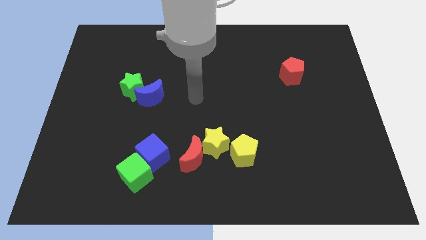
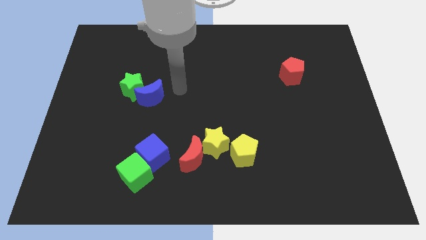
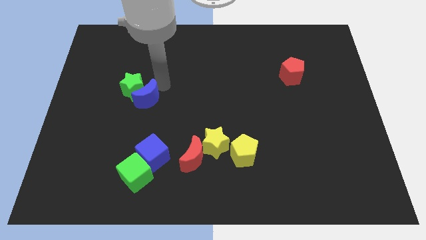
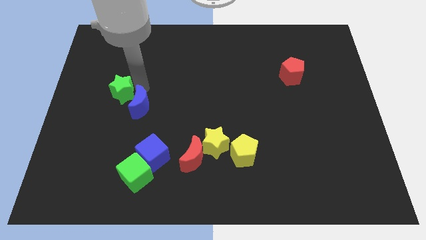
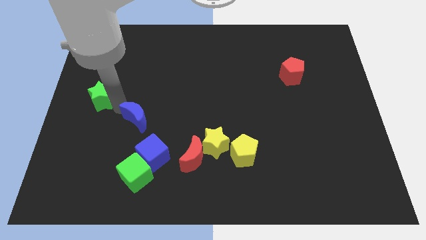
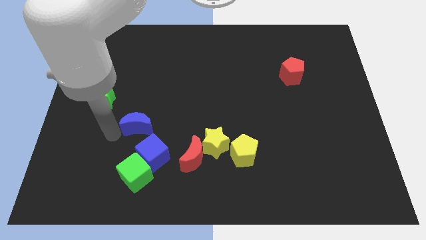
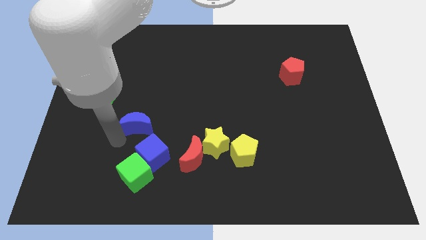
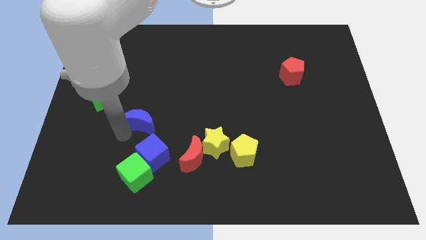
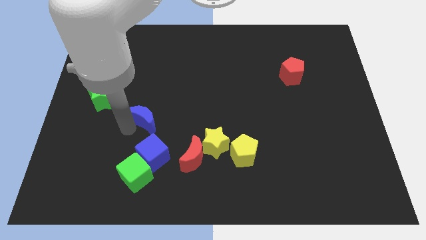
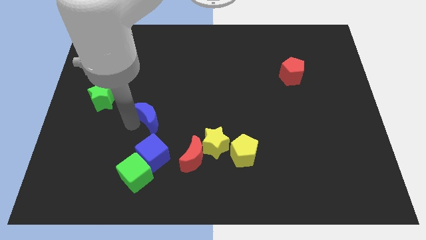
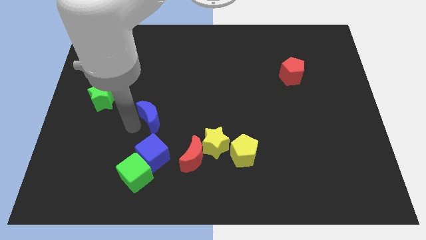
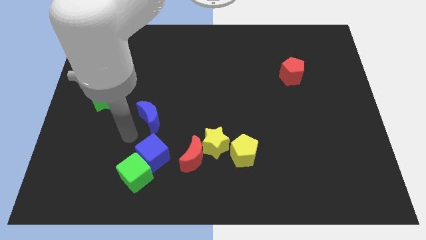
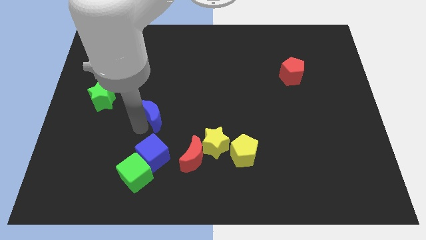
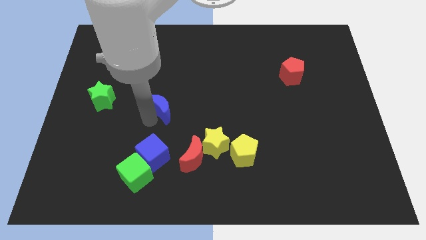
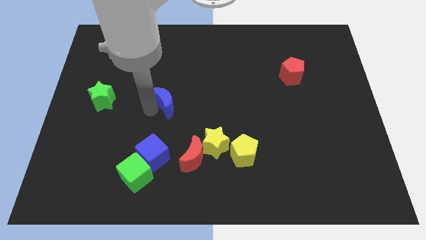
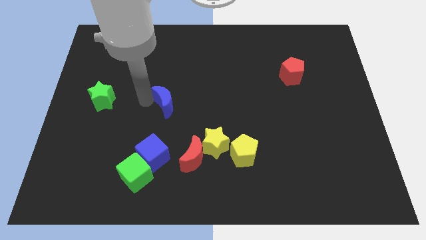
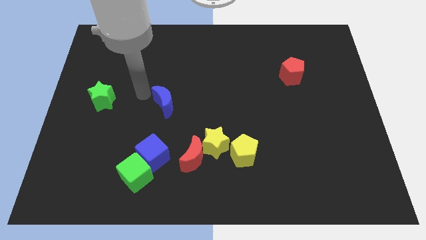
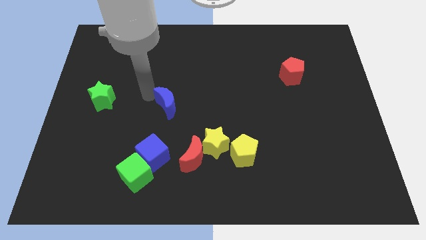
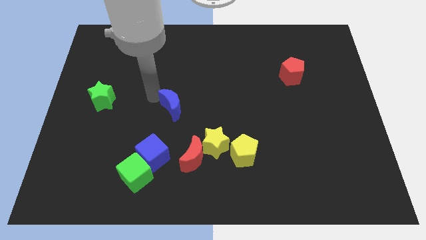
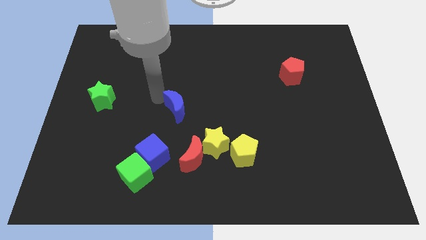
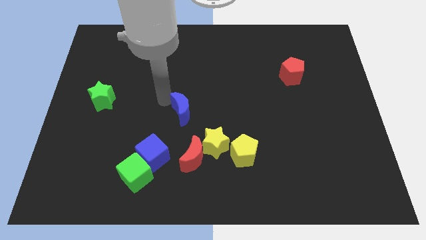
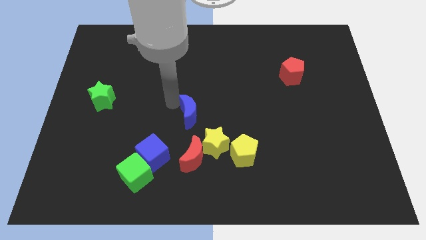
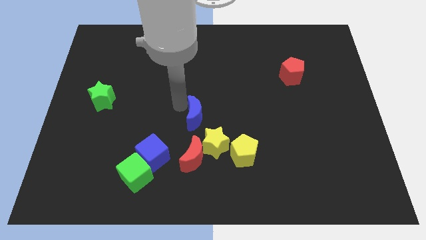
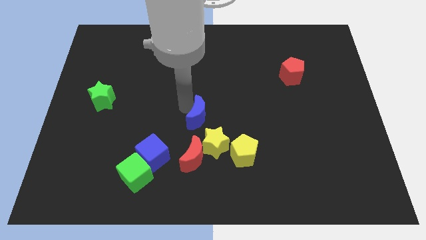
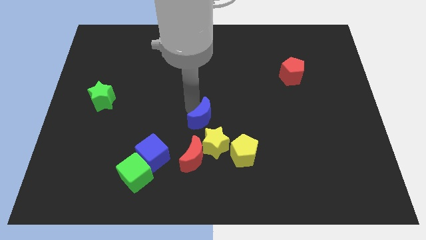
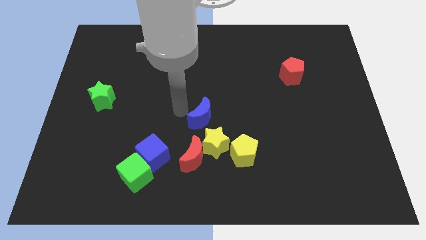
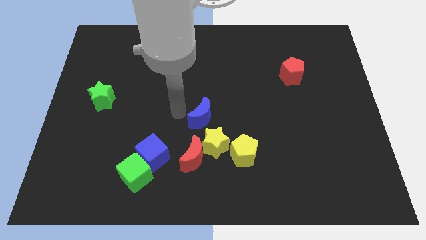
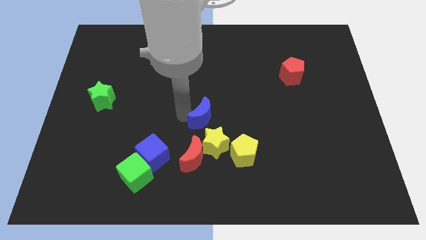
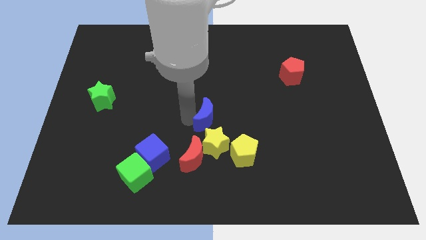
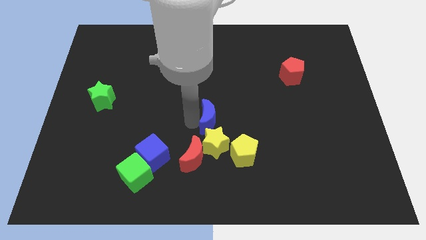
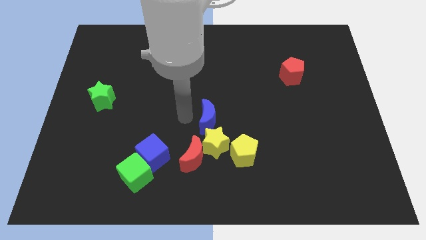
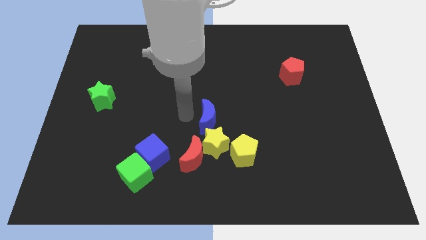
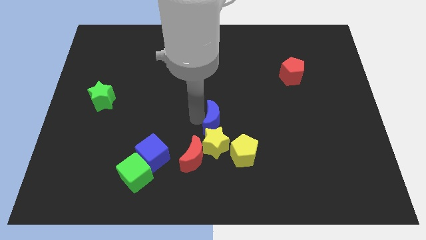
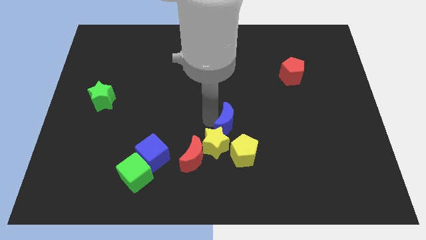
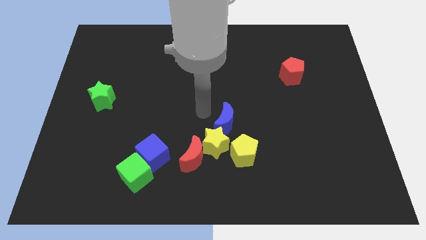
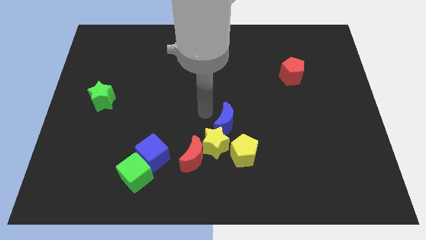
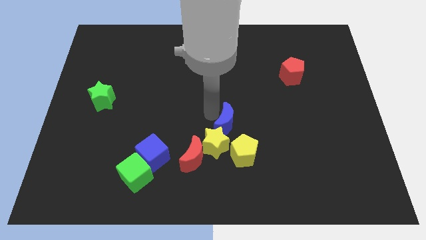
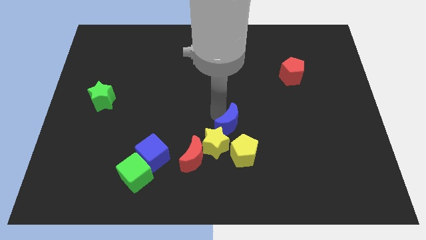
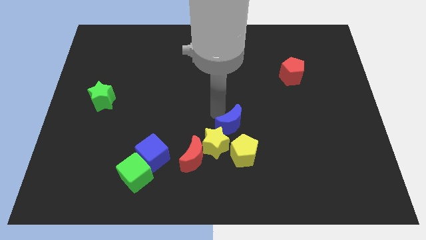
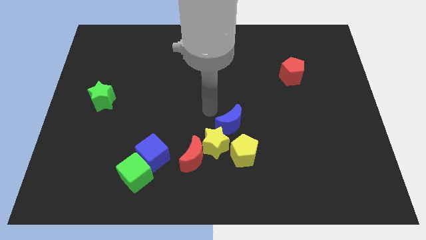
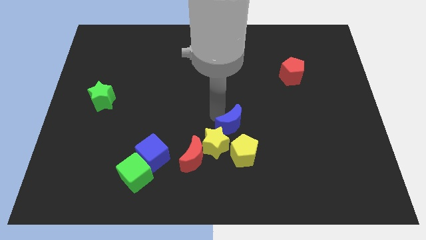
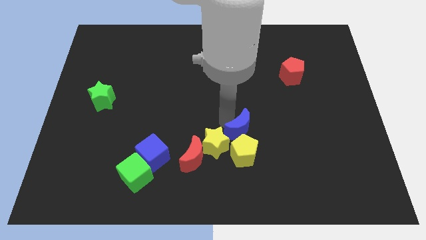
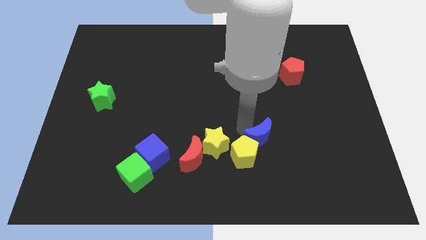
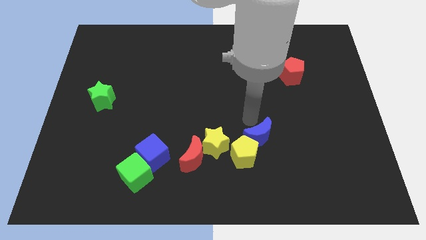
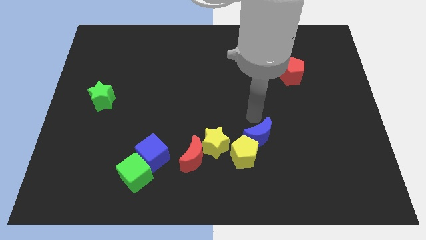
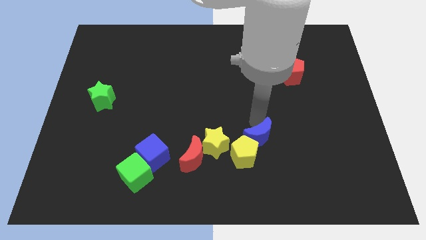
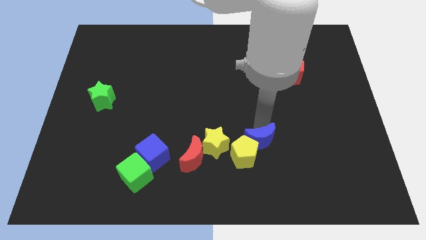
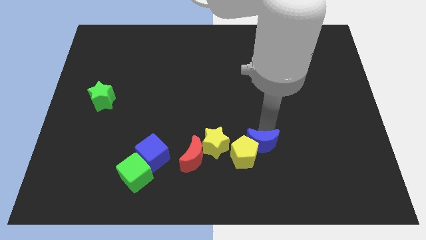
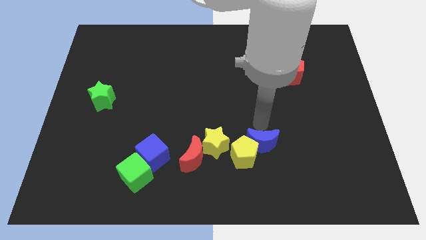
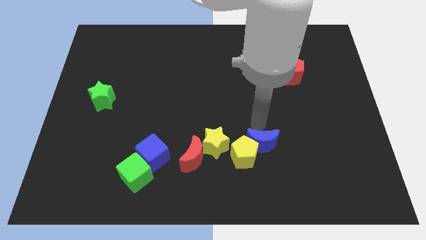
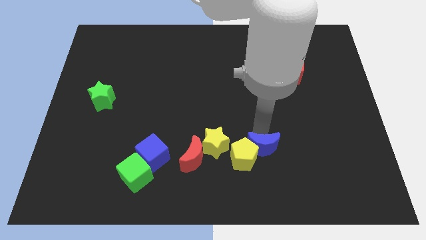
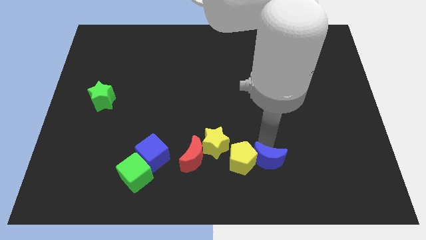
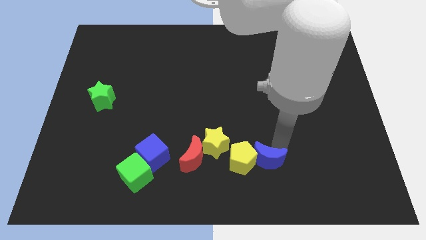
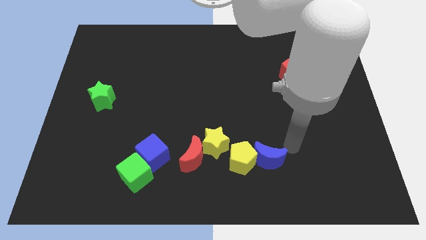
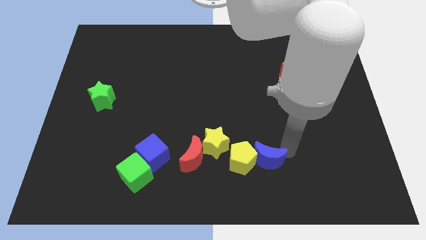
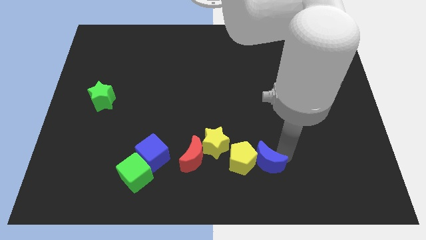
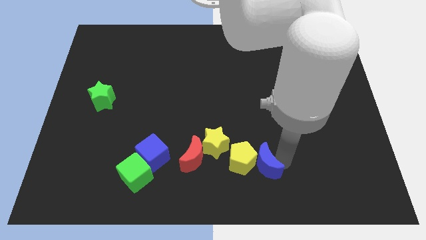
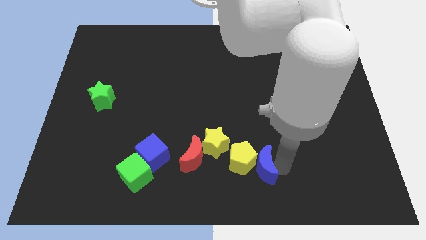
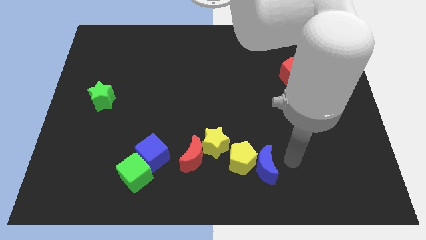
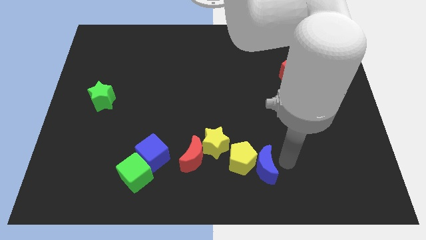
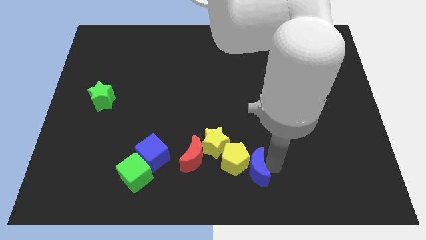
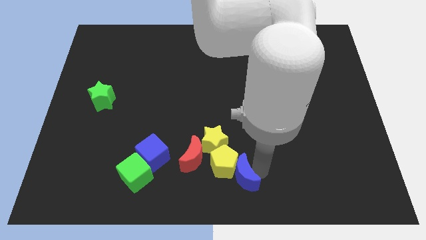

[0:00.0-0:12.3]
put the blue moon to the bottom right of the red moon

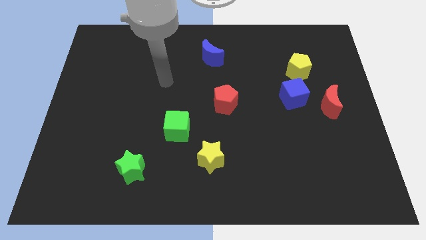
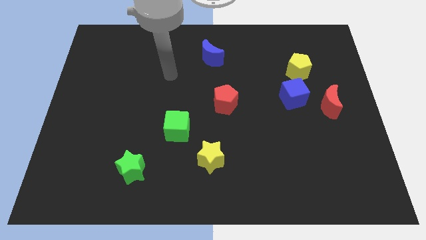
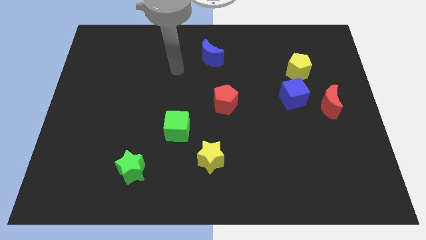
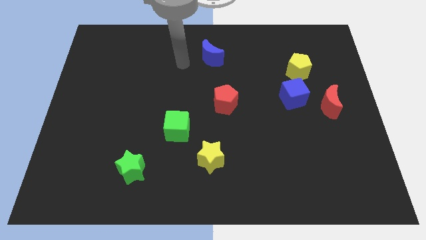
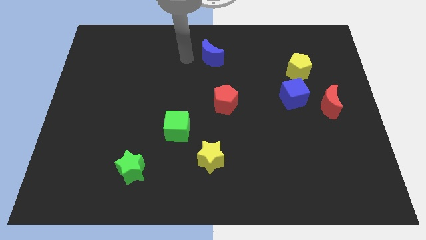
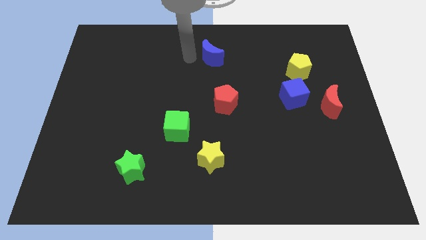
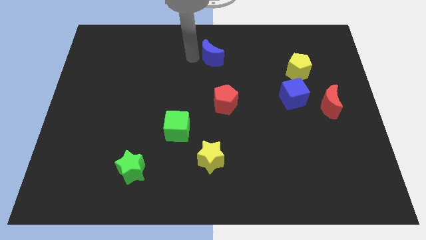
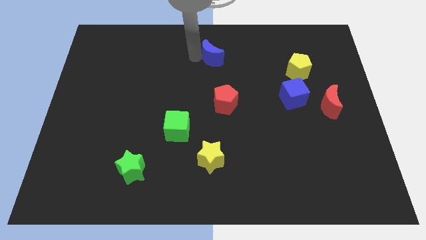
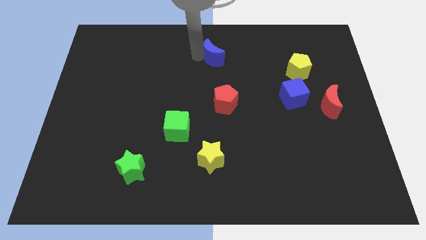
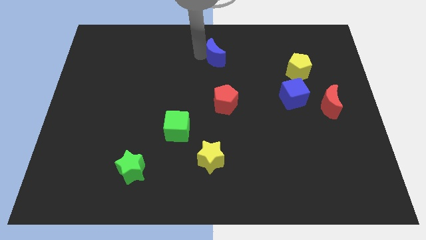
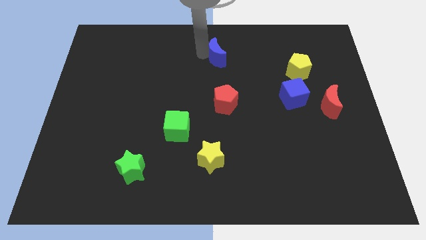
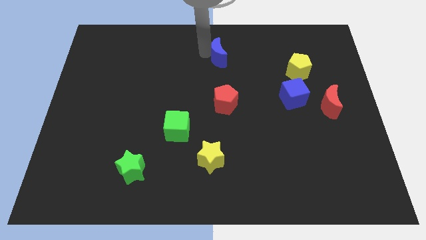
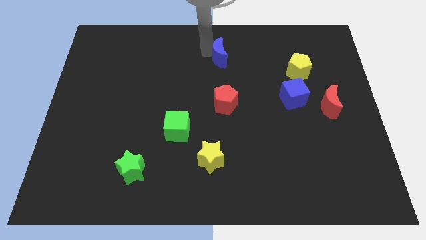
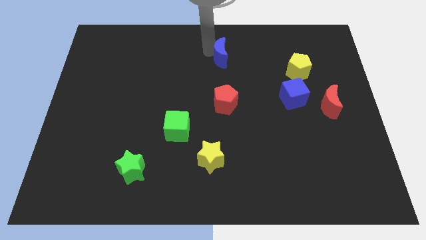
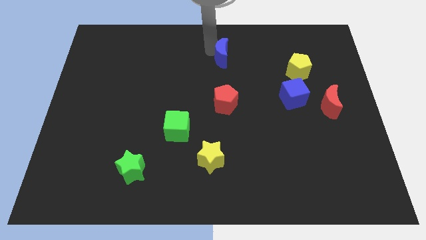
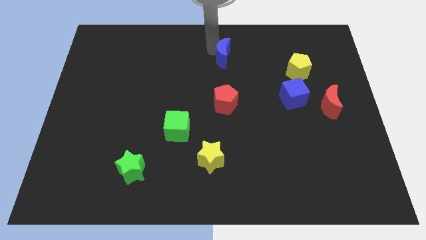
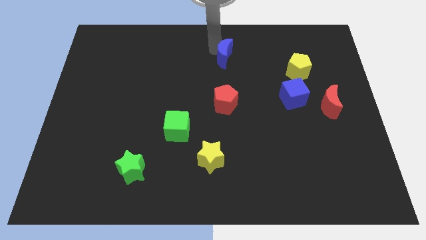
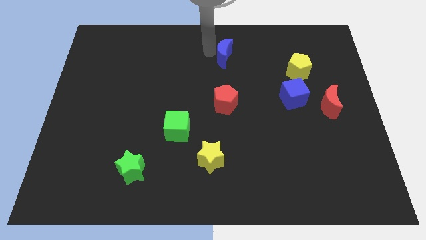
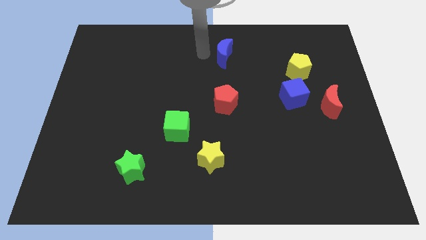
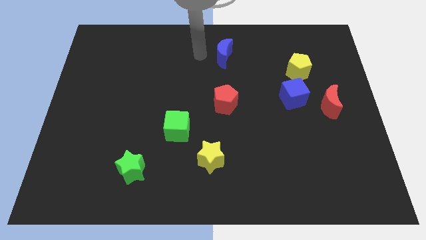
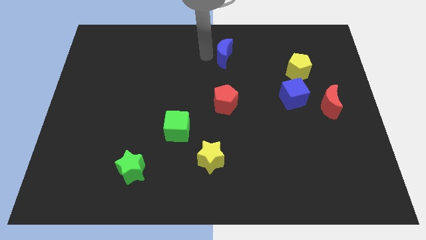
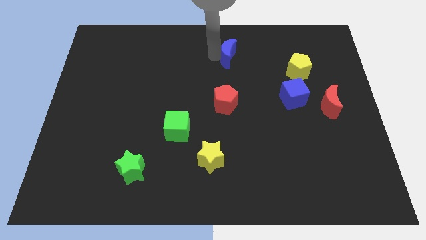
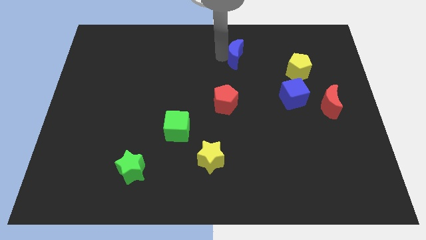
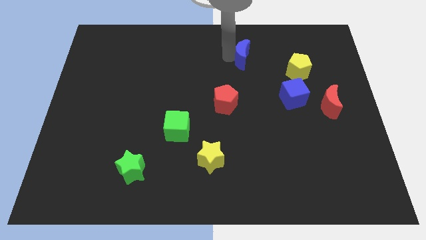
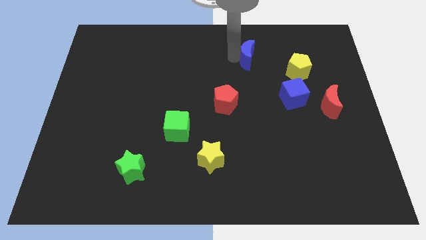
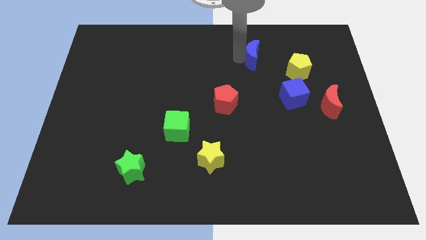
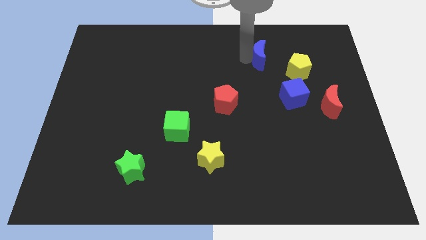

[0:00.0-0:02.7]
move the blue moon to the top left side of the yellow pentagon
